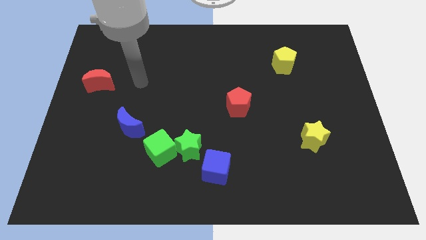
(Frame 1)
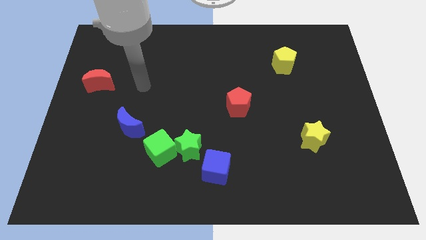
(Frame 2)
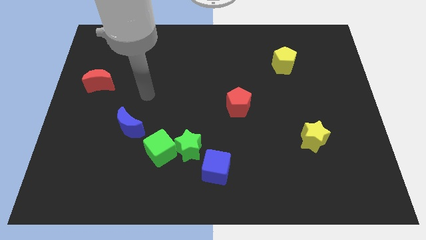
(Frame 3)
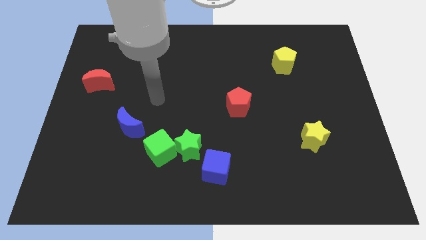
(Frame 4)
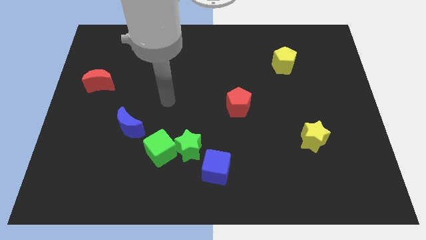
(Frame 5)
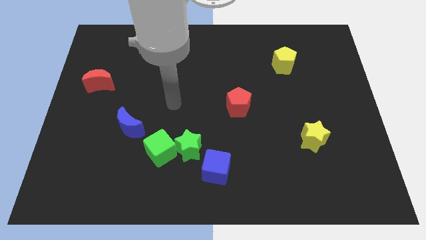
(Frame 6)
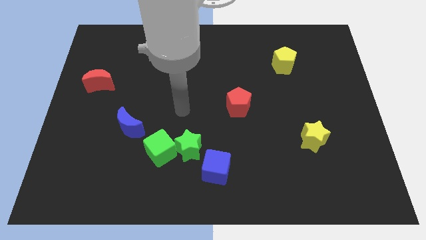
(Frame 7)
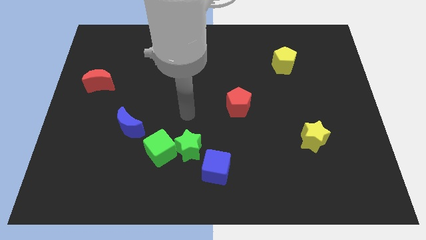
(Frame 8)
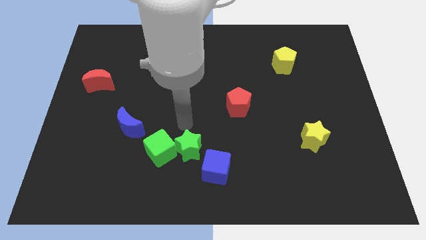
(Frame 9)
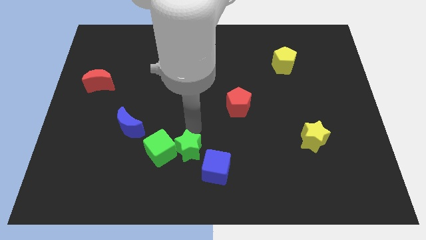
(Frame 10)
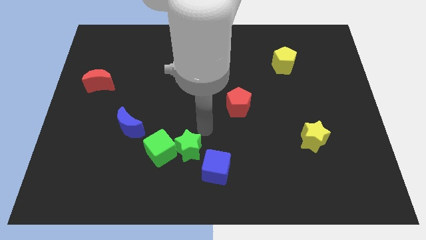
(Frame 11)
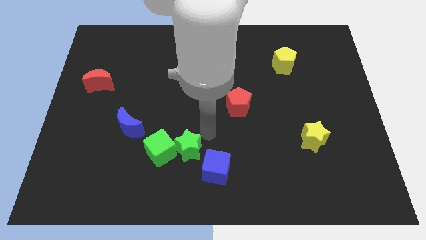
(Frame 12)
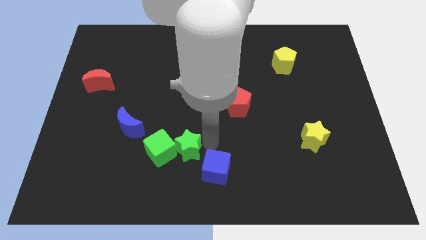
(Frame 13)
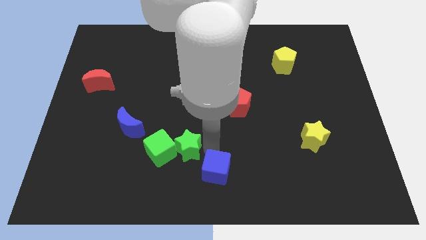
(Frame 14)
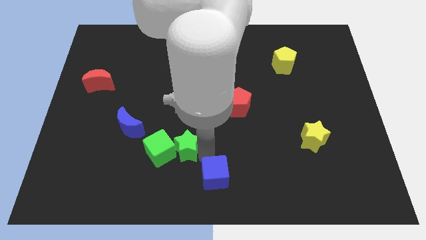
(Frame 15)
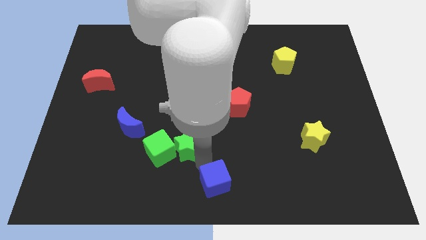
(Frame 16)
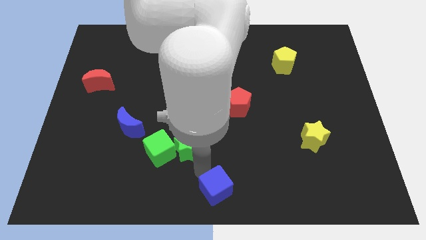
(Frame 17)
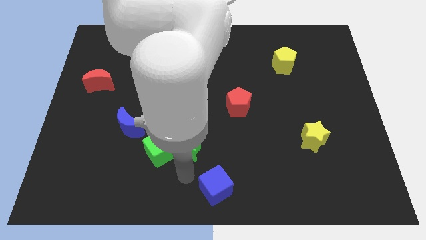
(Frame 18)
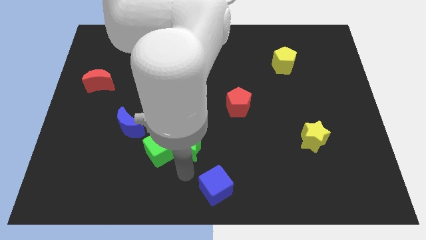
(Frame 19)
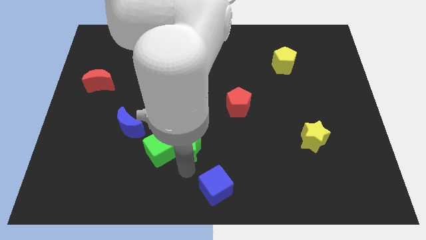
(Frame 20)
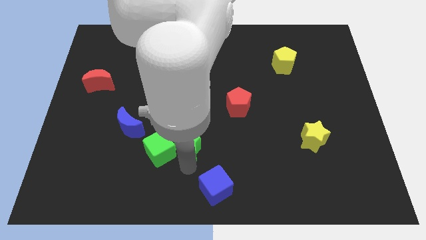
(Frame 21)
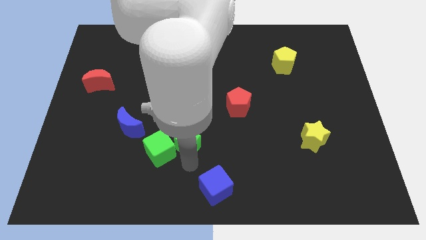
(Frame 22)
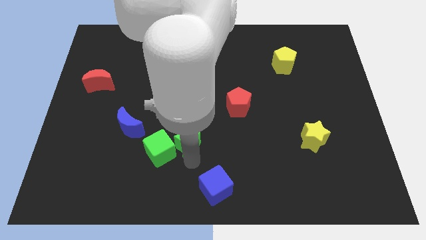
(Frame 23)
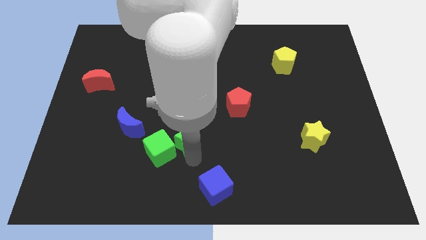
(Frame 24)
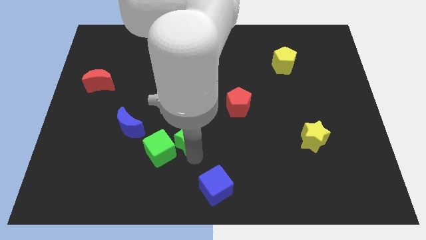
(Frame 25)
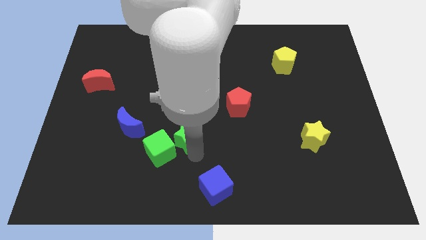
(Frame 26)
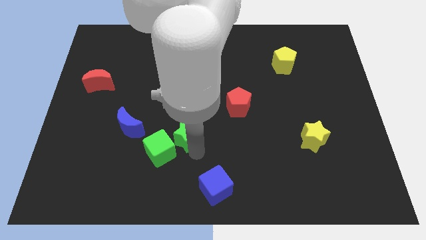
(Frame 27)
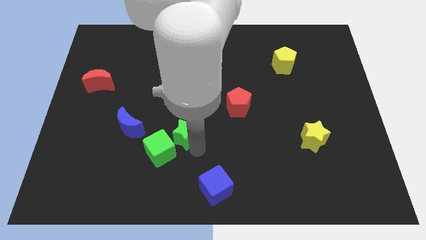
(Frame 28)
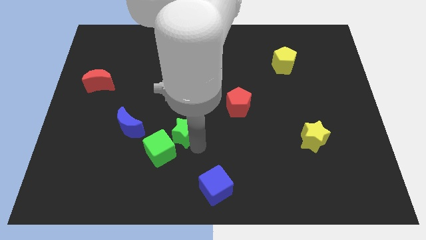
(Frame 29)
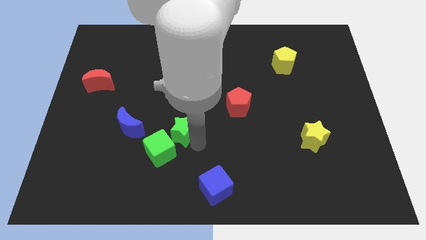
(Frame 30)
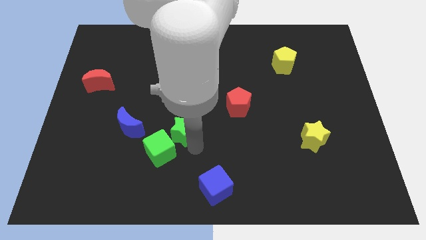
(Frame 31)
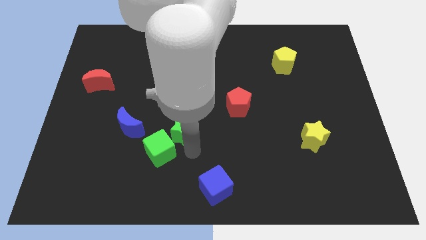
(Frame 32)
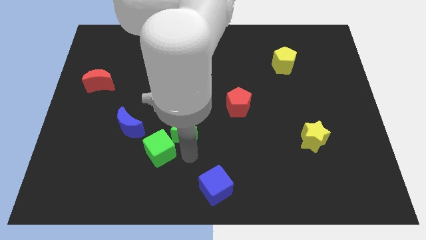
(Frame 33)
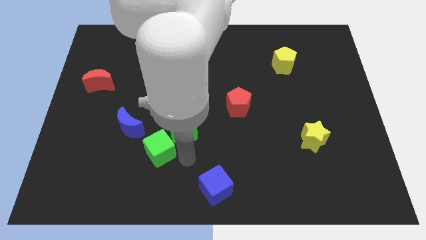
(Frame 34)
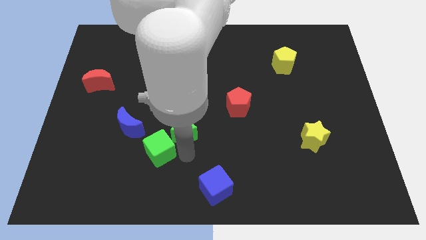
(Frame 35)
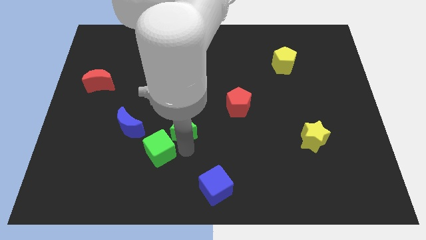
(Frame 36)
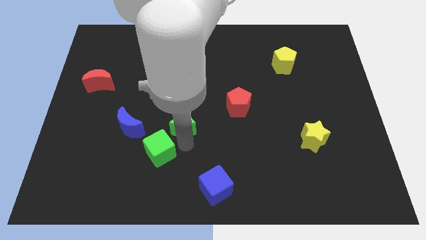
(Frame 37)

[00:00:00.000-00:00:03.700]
move the green star away from the green cube and blue cube

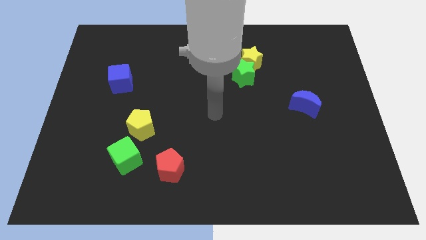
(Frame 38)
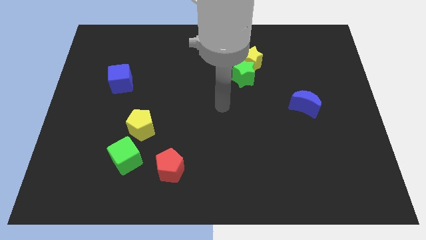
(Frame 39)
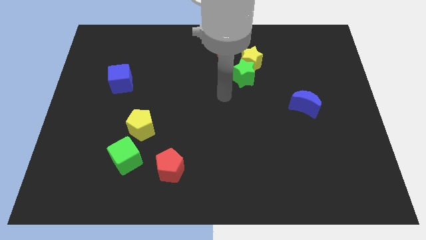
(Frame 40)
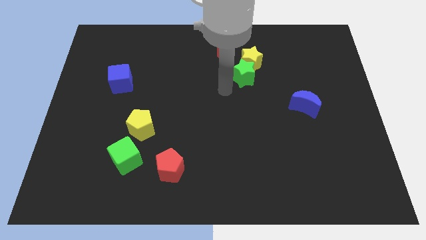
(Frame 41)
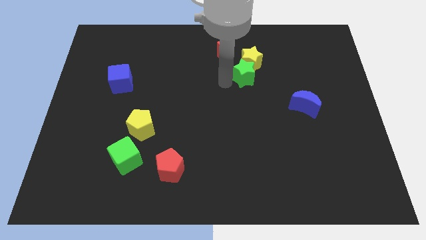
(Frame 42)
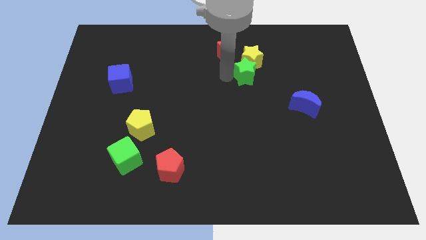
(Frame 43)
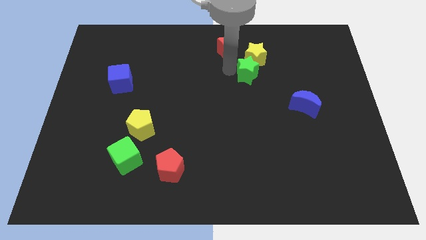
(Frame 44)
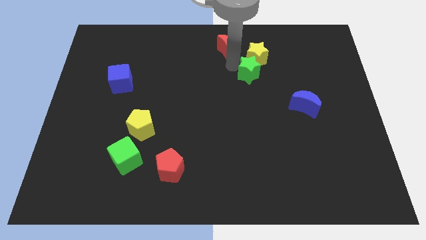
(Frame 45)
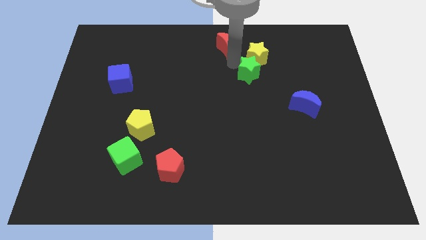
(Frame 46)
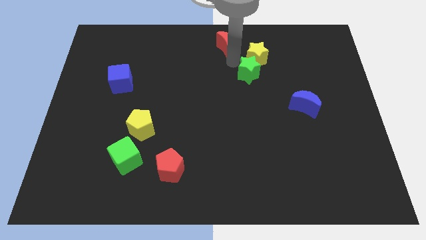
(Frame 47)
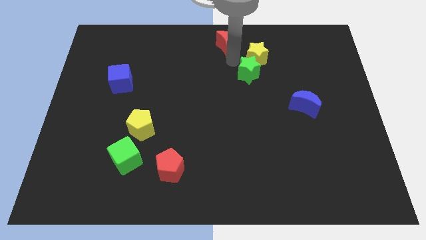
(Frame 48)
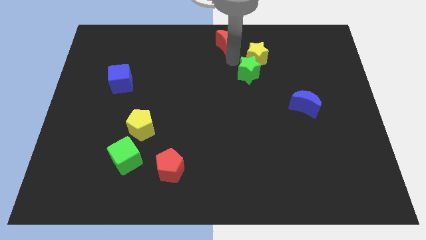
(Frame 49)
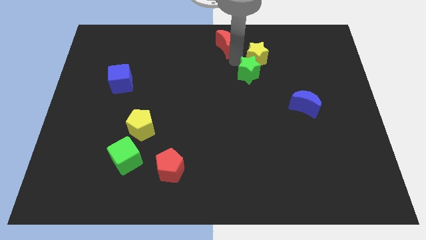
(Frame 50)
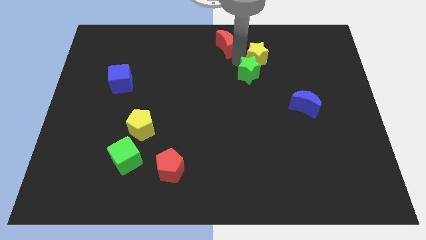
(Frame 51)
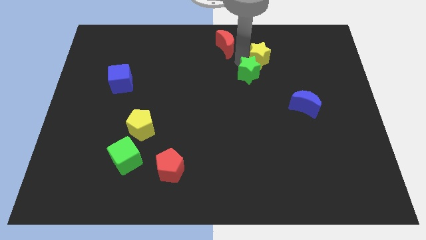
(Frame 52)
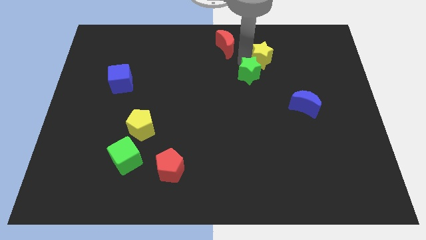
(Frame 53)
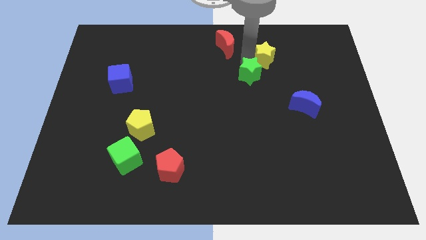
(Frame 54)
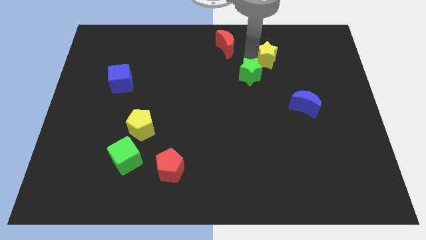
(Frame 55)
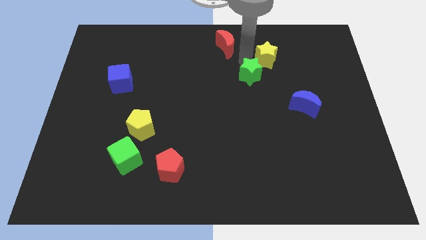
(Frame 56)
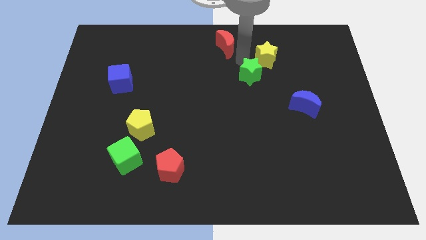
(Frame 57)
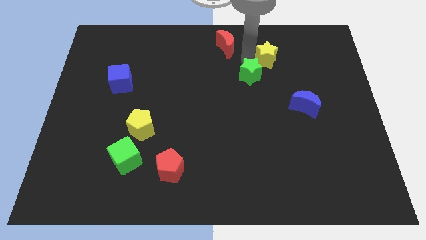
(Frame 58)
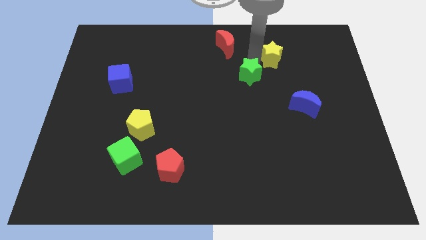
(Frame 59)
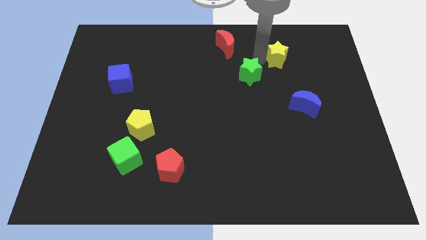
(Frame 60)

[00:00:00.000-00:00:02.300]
separate the yellow star from the green star and red moon

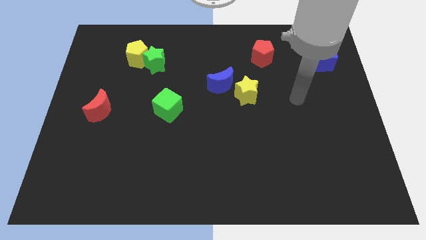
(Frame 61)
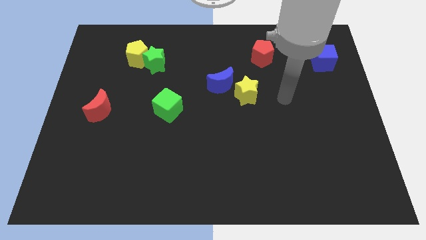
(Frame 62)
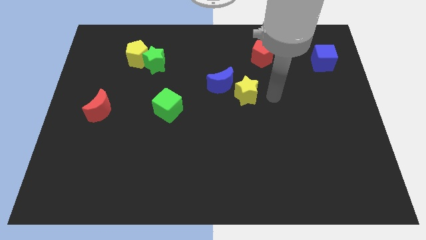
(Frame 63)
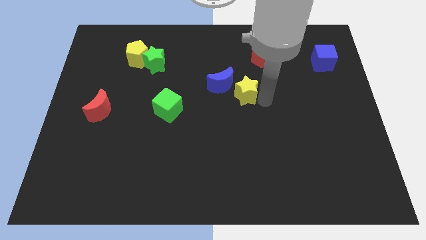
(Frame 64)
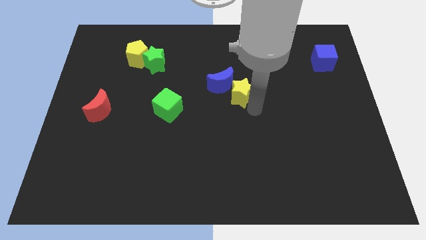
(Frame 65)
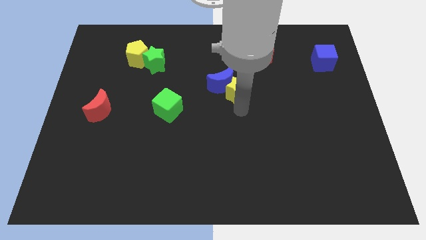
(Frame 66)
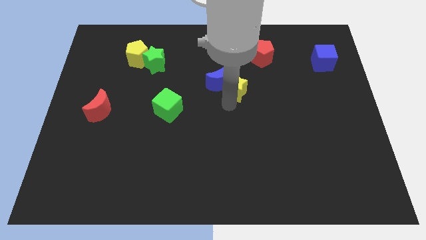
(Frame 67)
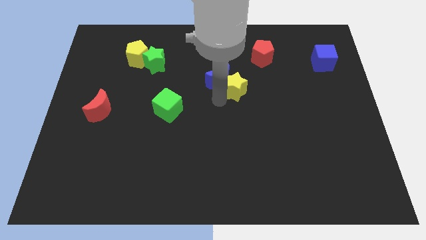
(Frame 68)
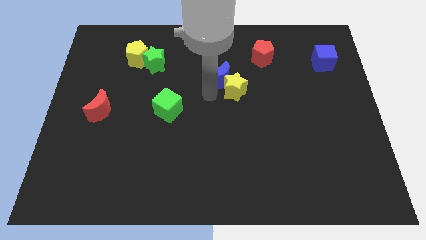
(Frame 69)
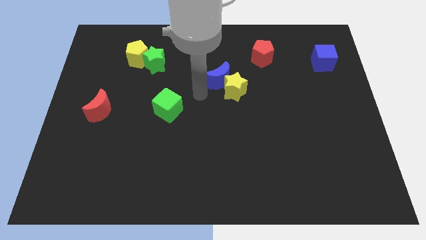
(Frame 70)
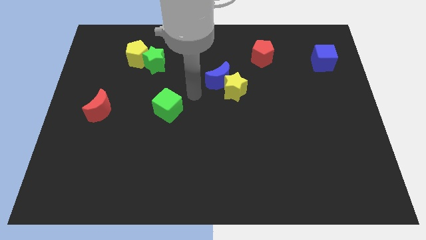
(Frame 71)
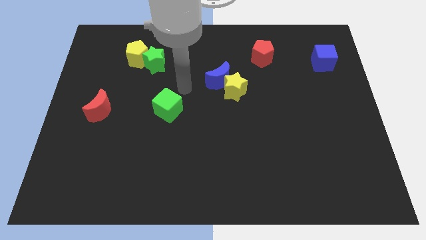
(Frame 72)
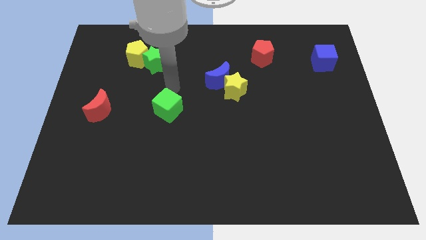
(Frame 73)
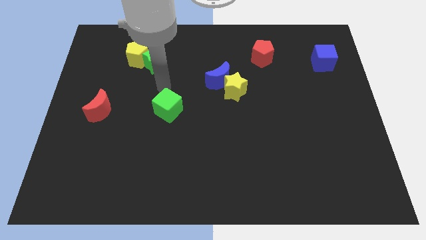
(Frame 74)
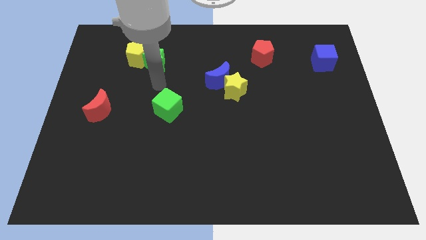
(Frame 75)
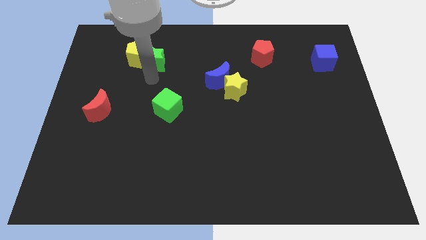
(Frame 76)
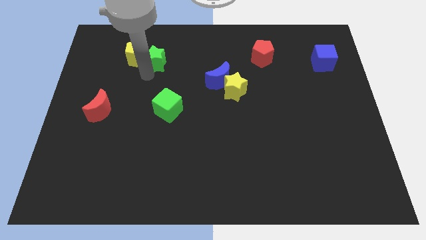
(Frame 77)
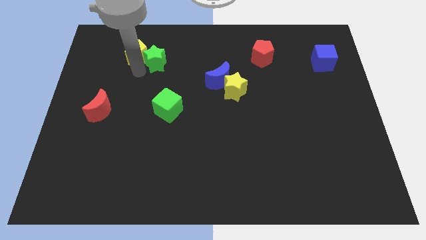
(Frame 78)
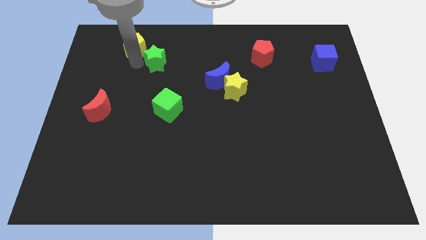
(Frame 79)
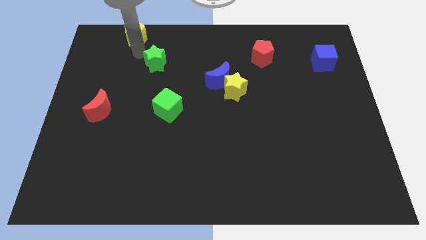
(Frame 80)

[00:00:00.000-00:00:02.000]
pull the green star apart from the yellow pentagon

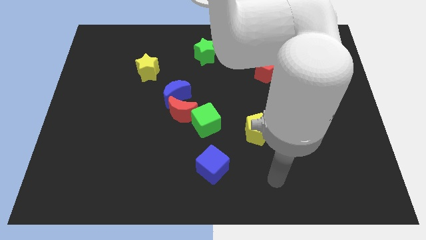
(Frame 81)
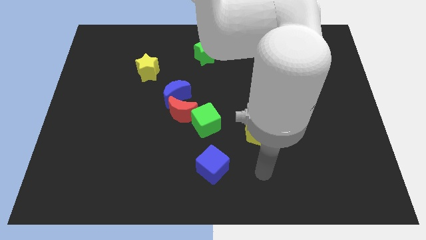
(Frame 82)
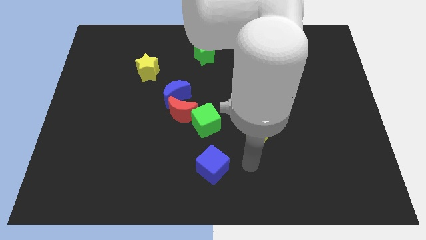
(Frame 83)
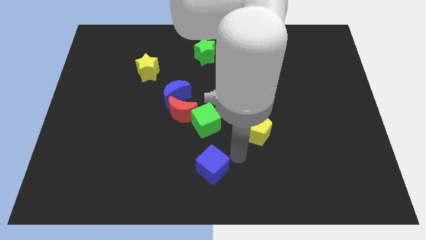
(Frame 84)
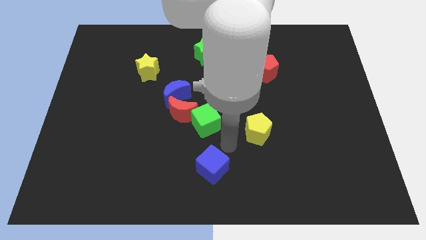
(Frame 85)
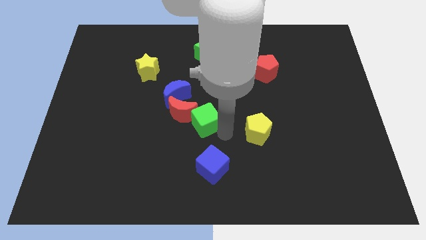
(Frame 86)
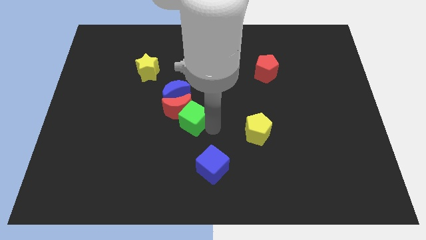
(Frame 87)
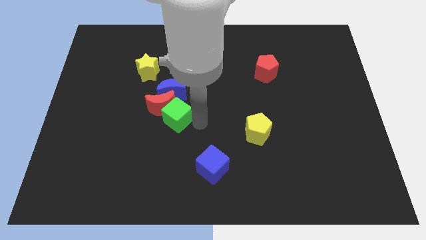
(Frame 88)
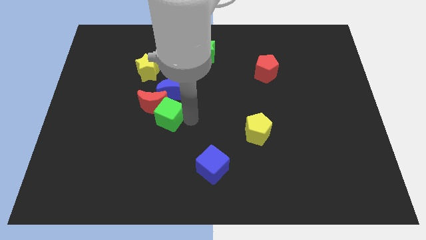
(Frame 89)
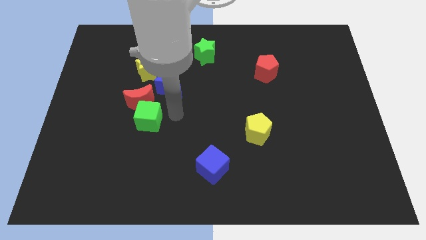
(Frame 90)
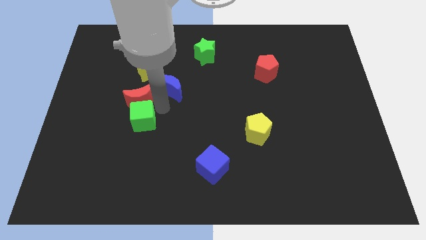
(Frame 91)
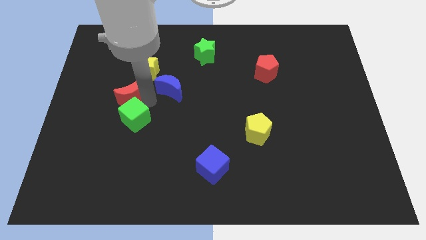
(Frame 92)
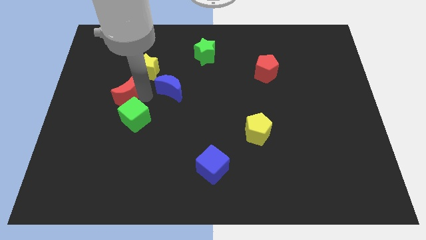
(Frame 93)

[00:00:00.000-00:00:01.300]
move the blue moon away from the red moon

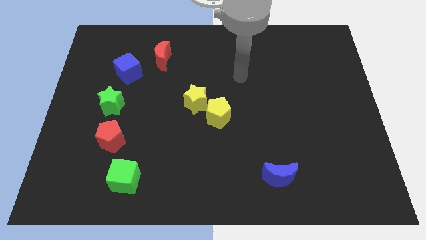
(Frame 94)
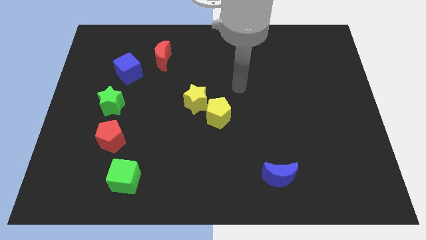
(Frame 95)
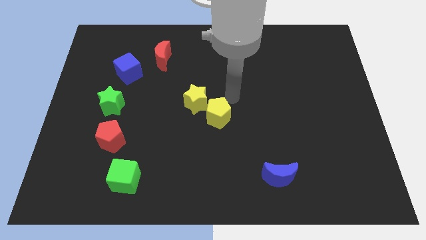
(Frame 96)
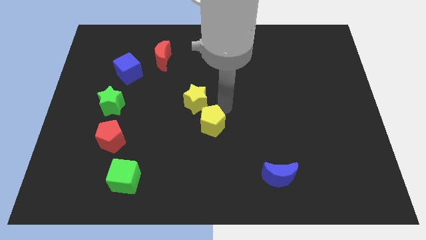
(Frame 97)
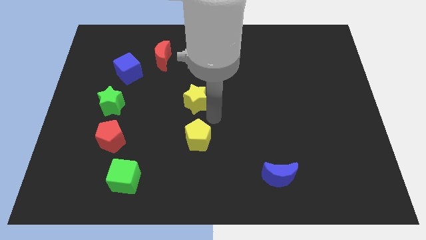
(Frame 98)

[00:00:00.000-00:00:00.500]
separate the yellow star from the yellow pentagon